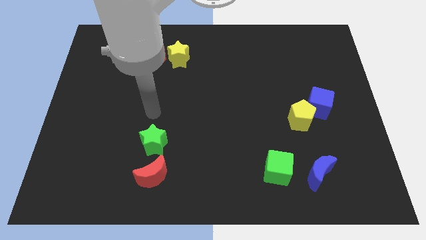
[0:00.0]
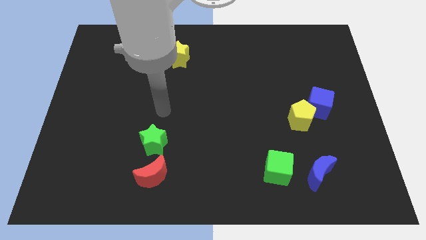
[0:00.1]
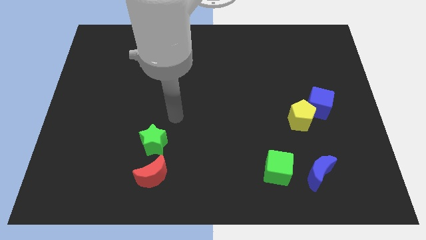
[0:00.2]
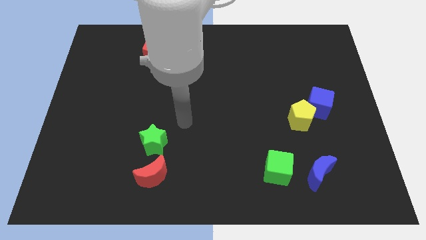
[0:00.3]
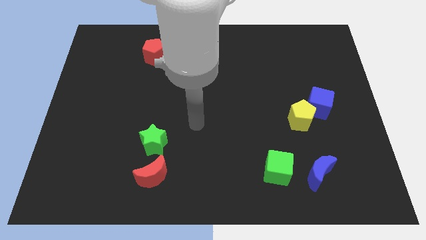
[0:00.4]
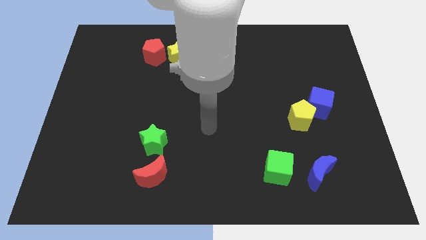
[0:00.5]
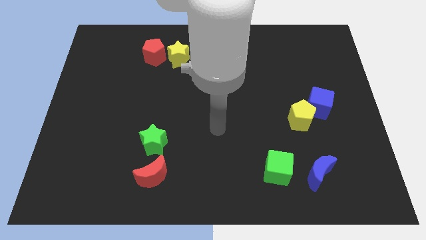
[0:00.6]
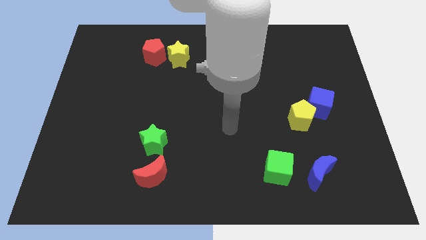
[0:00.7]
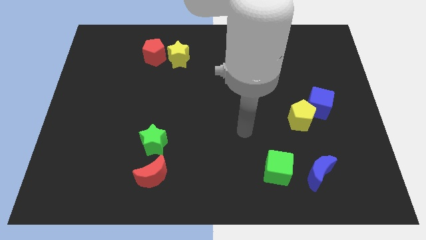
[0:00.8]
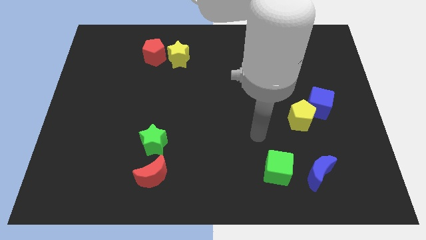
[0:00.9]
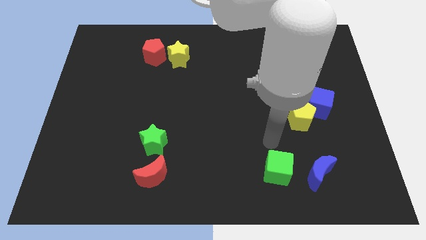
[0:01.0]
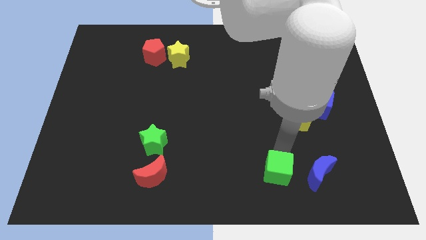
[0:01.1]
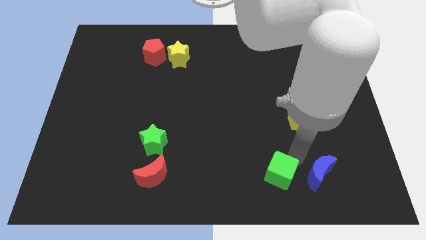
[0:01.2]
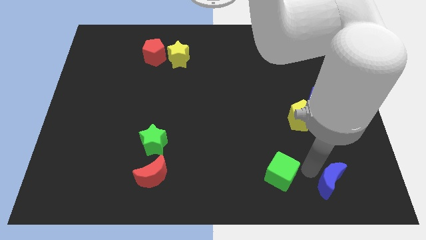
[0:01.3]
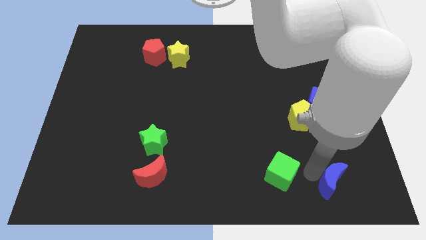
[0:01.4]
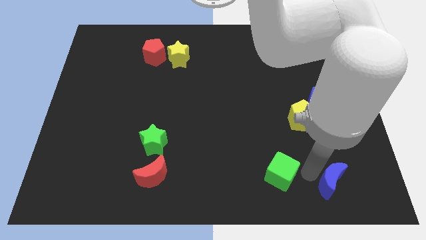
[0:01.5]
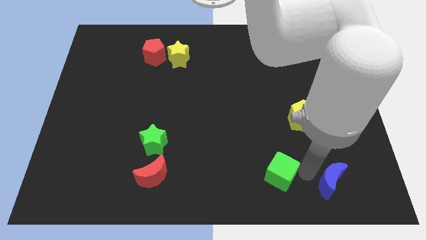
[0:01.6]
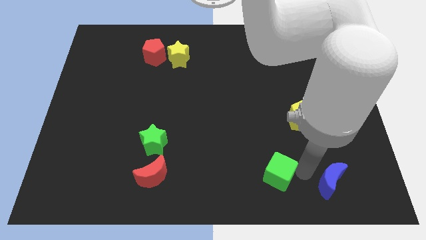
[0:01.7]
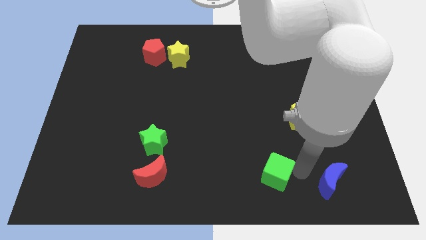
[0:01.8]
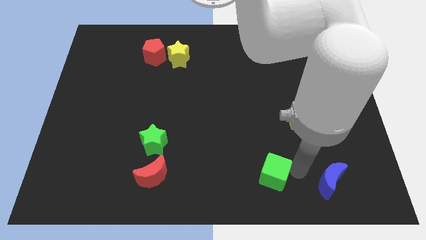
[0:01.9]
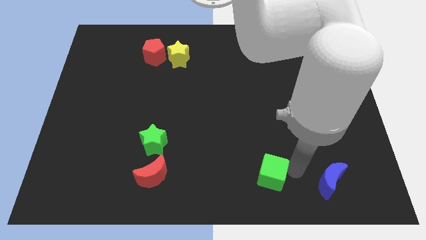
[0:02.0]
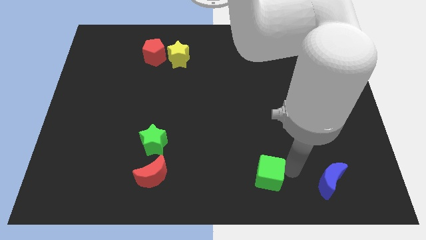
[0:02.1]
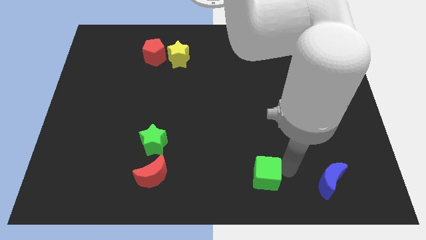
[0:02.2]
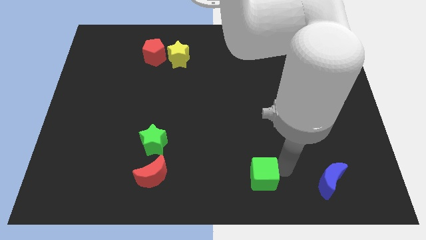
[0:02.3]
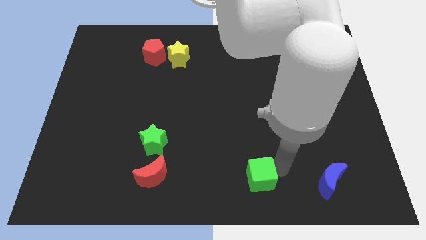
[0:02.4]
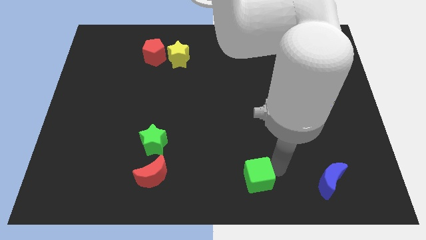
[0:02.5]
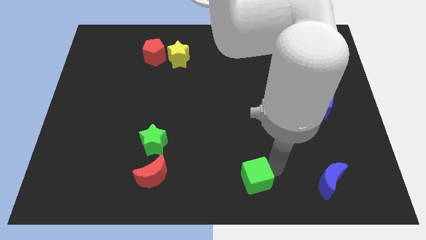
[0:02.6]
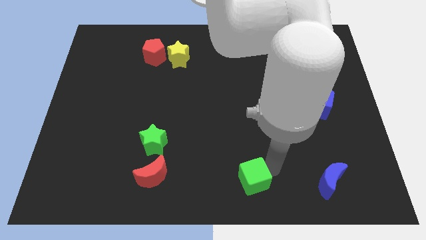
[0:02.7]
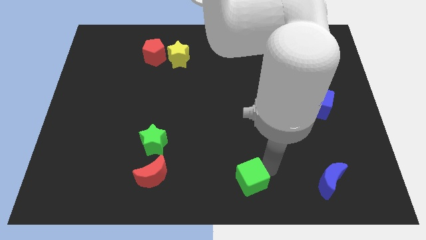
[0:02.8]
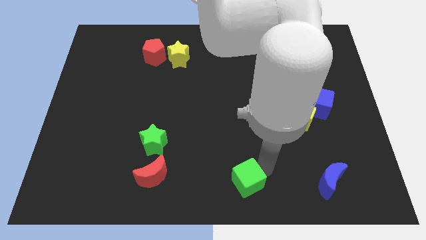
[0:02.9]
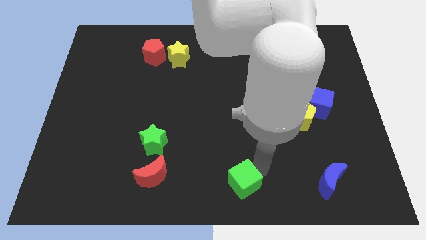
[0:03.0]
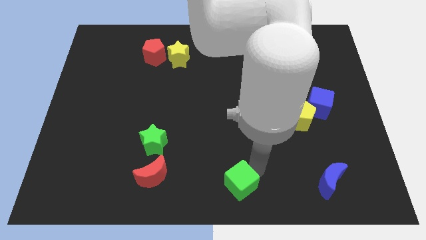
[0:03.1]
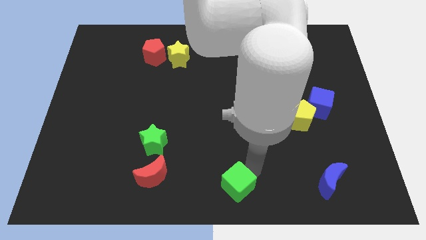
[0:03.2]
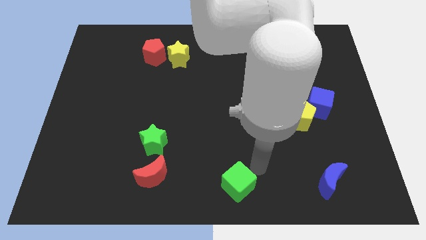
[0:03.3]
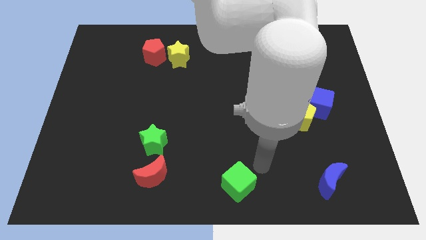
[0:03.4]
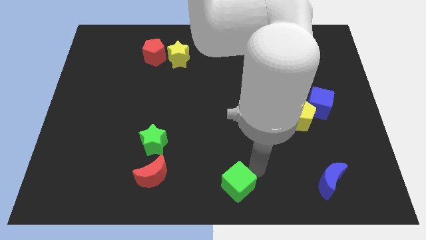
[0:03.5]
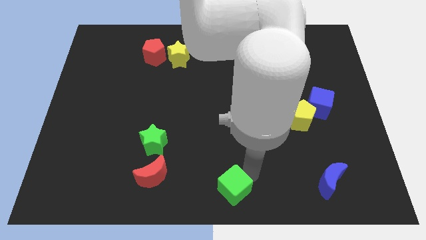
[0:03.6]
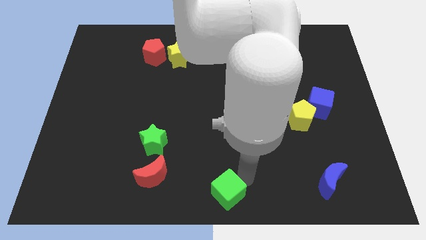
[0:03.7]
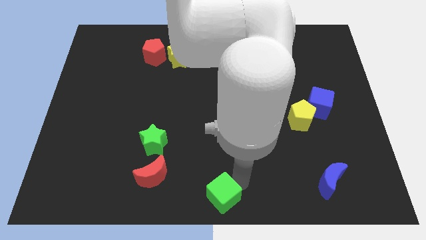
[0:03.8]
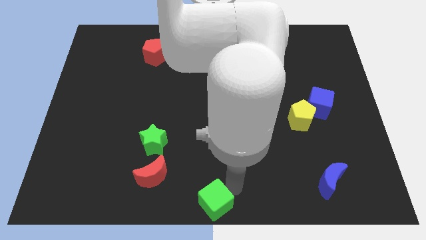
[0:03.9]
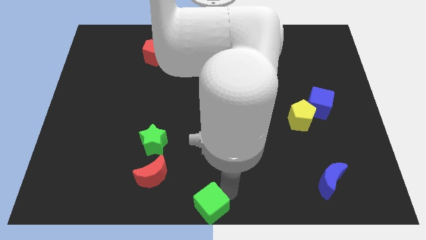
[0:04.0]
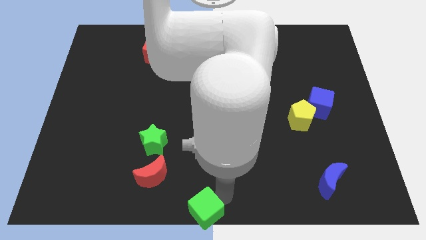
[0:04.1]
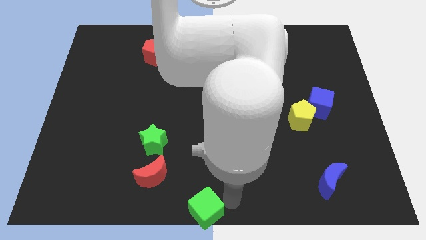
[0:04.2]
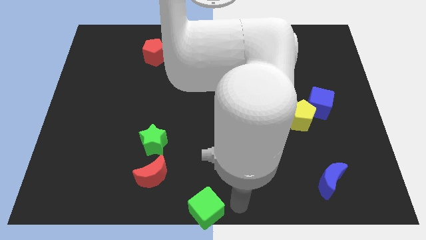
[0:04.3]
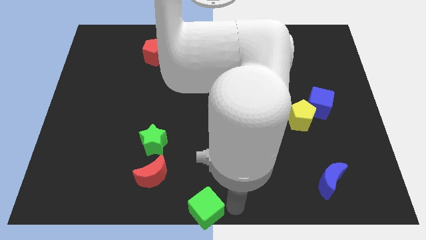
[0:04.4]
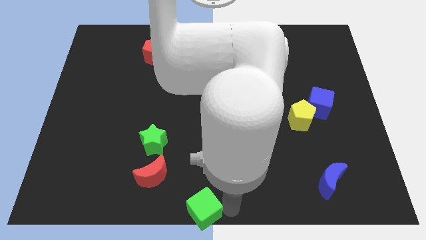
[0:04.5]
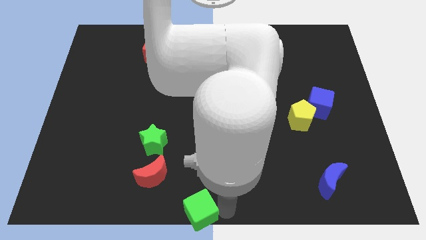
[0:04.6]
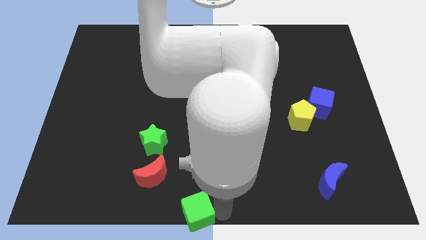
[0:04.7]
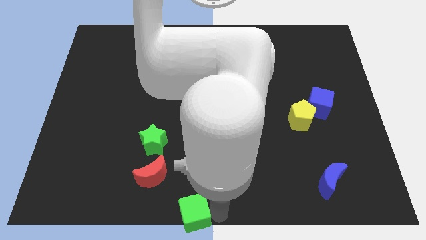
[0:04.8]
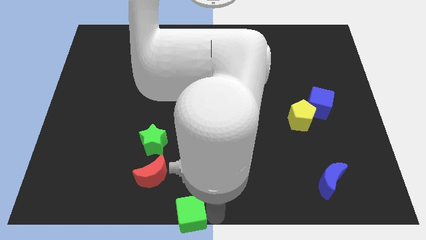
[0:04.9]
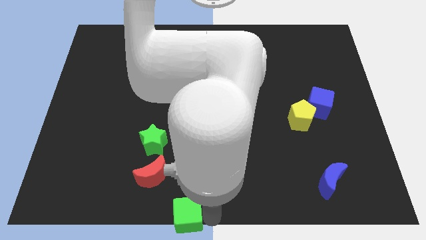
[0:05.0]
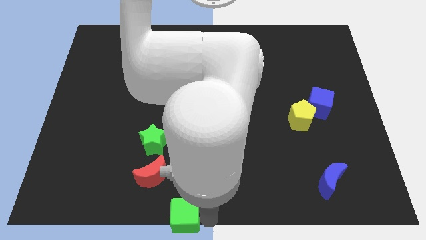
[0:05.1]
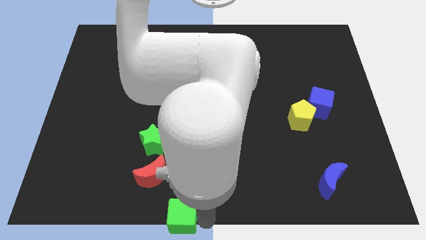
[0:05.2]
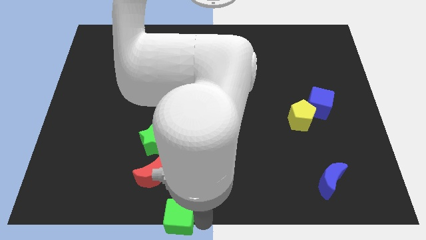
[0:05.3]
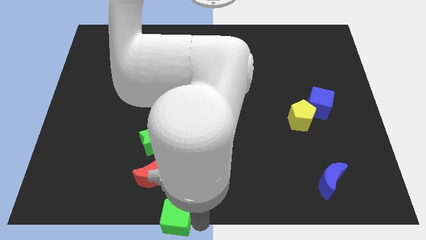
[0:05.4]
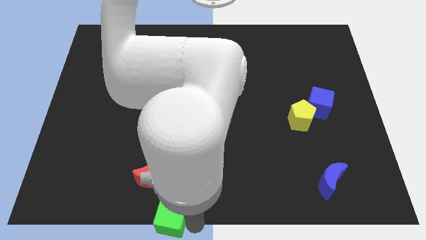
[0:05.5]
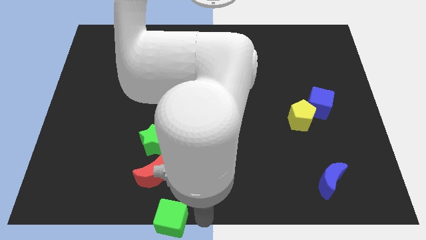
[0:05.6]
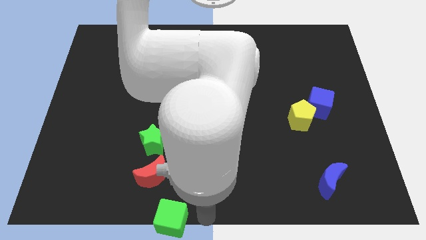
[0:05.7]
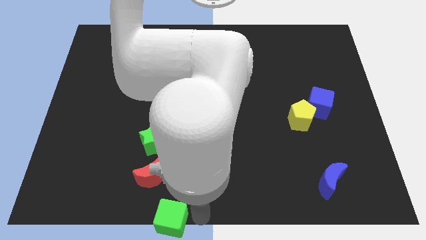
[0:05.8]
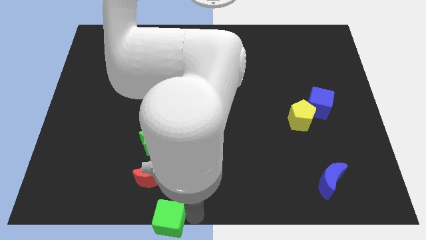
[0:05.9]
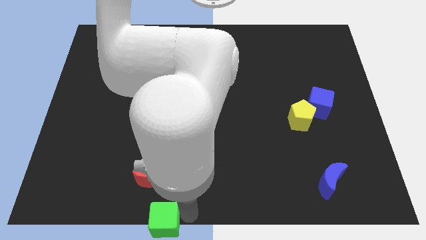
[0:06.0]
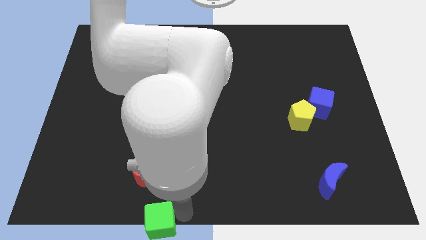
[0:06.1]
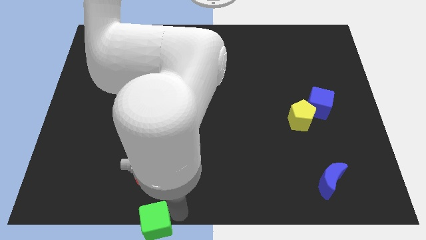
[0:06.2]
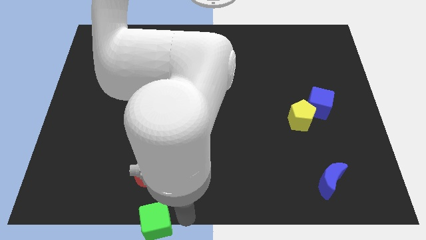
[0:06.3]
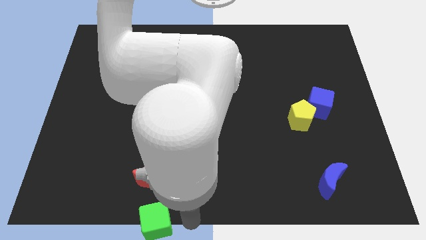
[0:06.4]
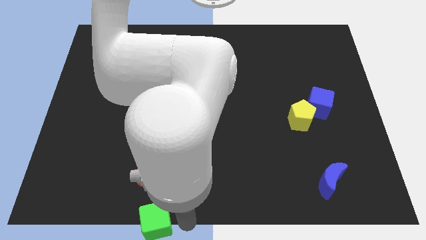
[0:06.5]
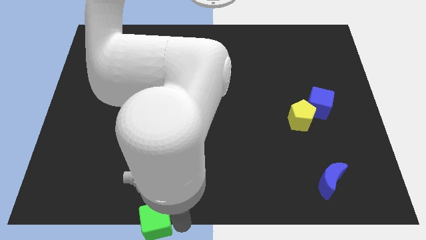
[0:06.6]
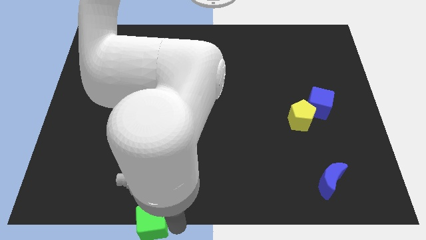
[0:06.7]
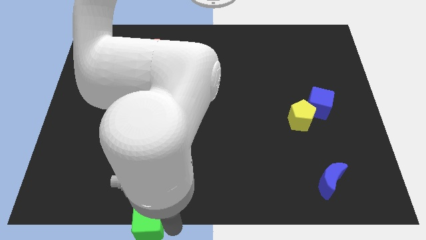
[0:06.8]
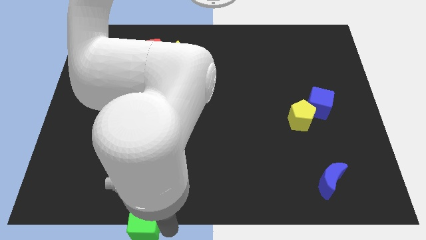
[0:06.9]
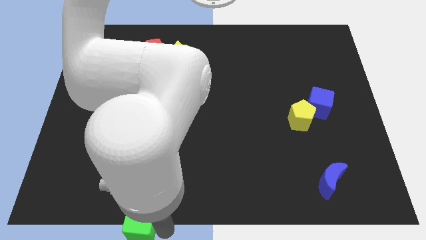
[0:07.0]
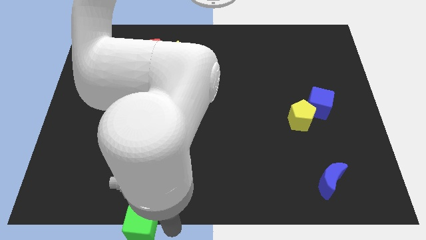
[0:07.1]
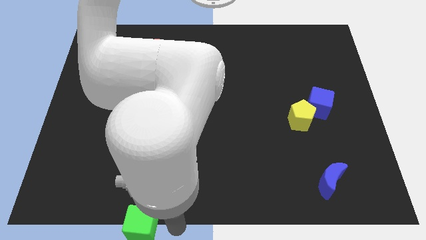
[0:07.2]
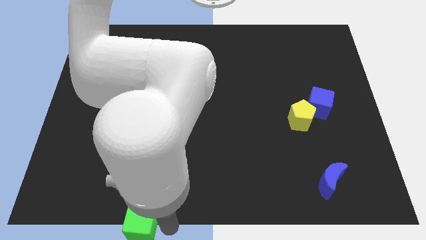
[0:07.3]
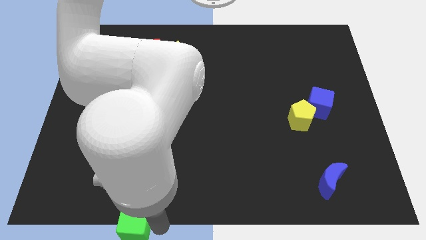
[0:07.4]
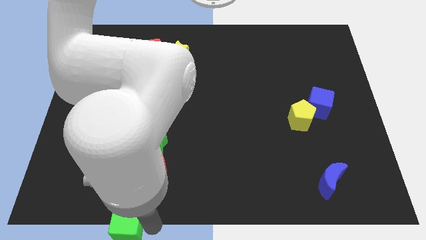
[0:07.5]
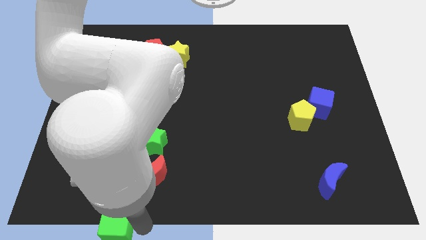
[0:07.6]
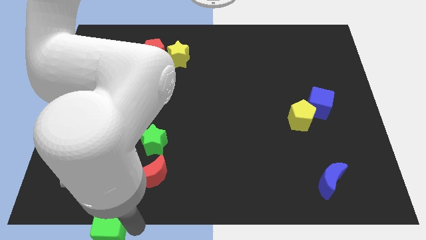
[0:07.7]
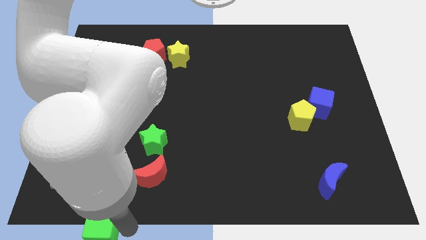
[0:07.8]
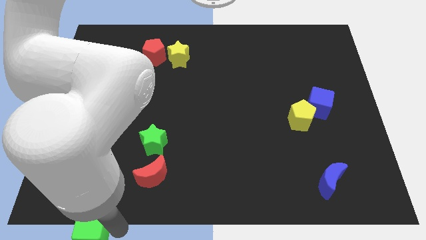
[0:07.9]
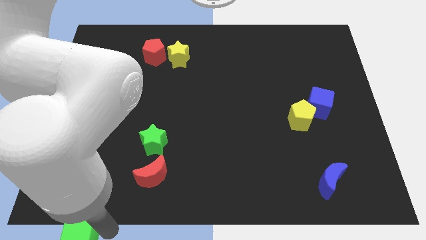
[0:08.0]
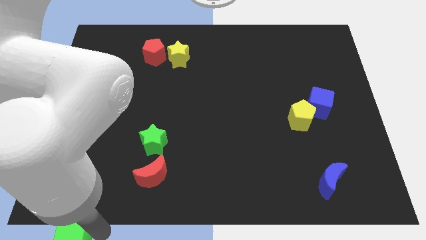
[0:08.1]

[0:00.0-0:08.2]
slide the green cube to the bottom left corner
